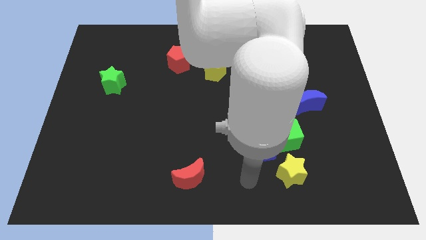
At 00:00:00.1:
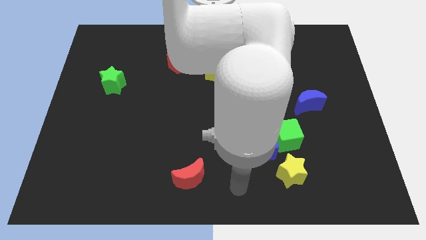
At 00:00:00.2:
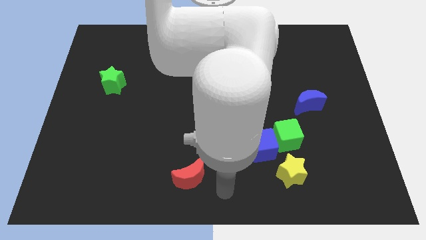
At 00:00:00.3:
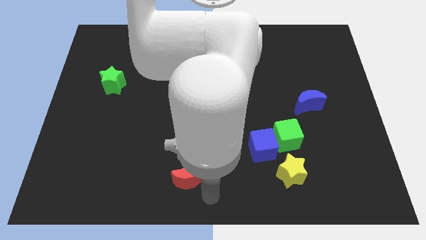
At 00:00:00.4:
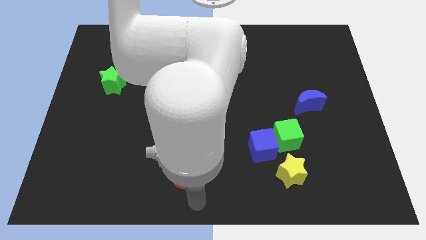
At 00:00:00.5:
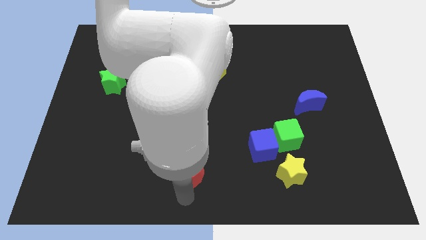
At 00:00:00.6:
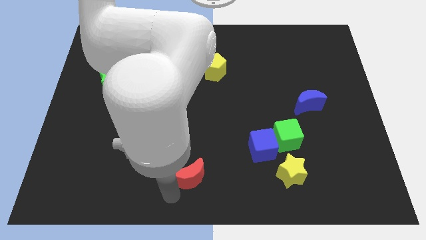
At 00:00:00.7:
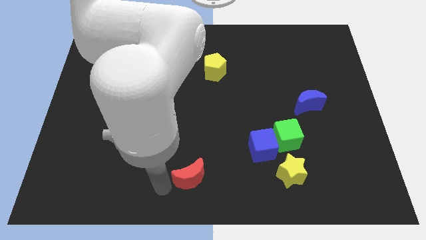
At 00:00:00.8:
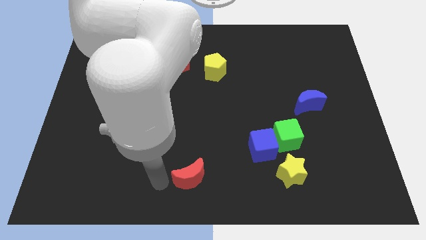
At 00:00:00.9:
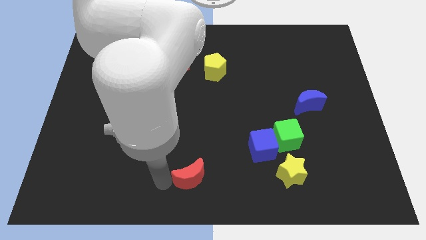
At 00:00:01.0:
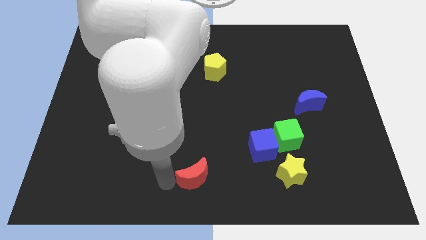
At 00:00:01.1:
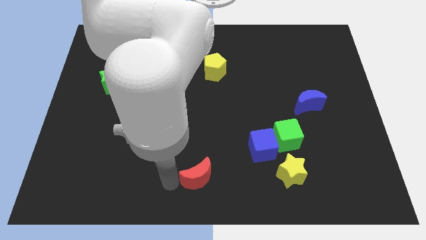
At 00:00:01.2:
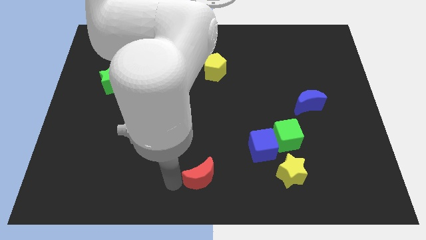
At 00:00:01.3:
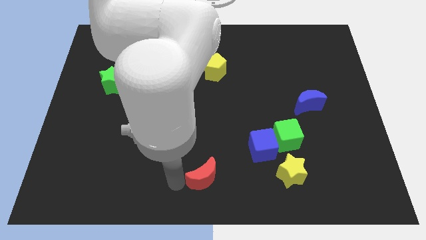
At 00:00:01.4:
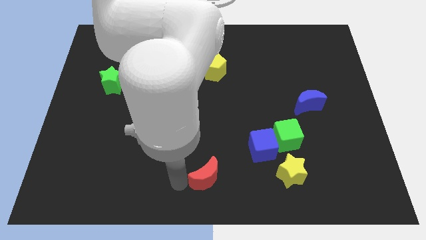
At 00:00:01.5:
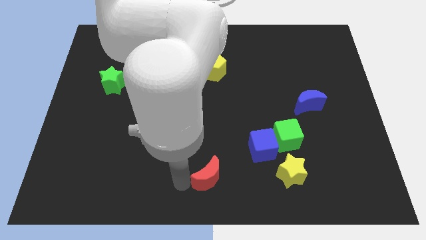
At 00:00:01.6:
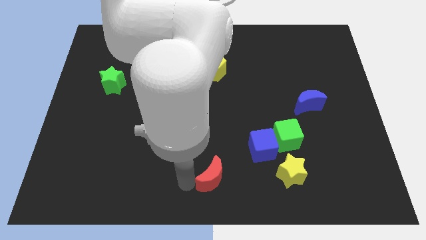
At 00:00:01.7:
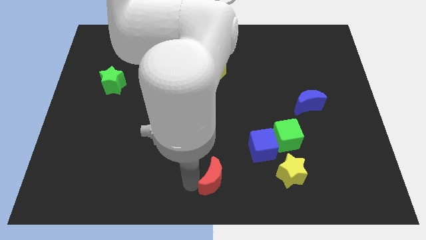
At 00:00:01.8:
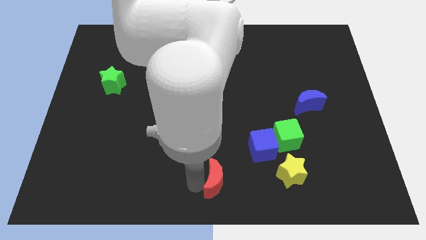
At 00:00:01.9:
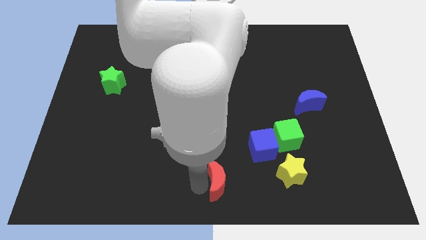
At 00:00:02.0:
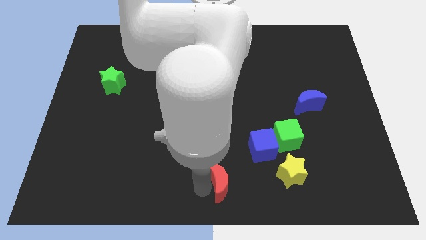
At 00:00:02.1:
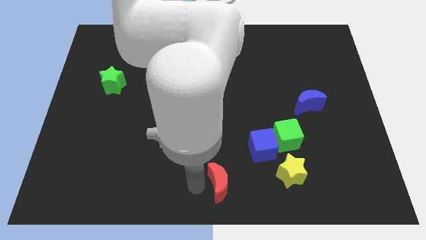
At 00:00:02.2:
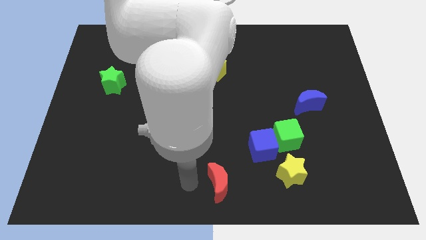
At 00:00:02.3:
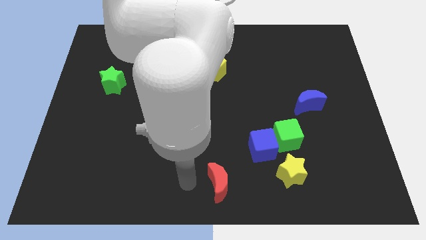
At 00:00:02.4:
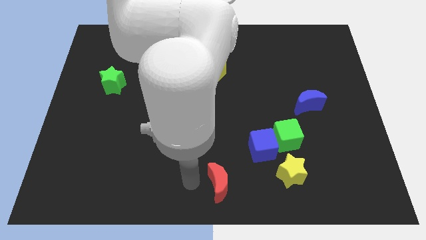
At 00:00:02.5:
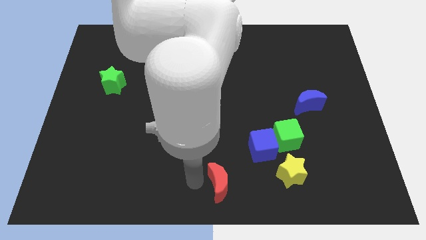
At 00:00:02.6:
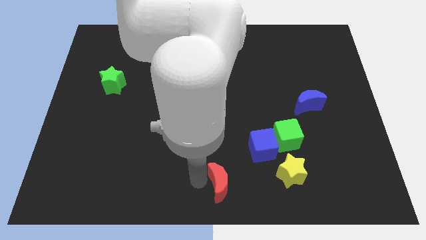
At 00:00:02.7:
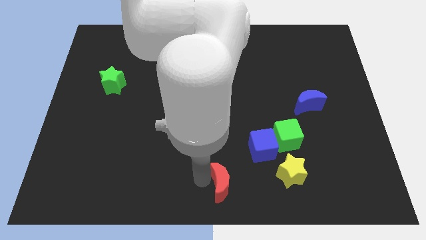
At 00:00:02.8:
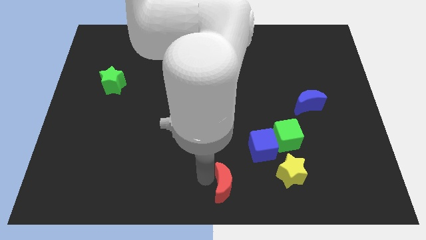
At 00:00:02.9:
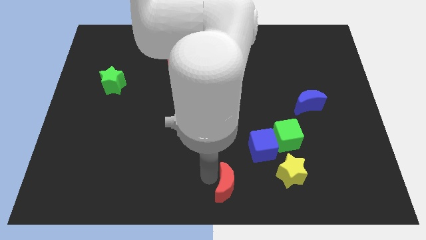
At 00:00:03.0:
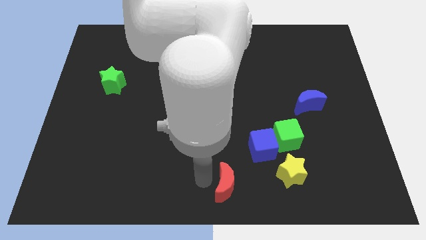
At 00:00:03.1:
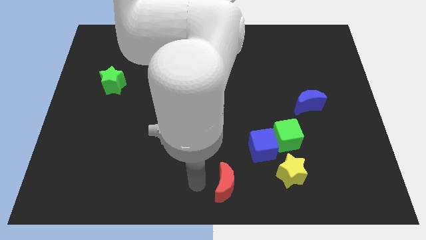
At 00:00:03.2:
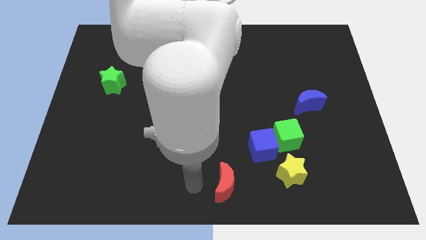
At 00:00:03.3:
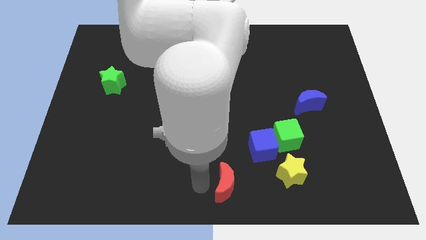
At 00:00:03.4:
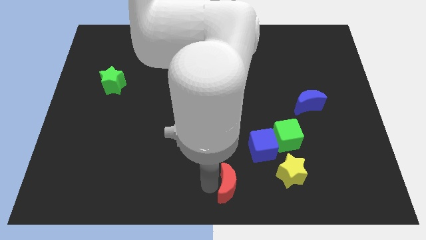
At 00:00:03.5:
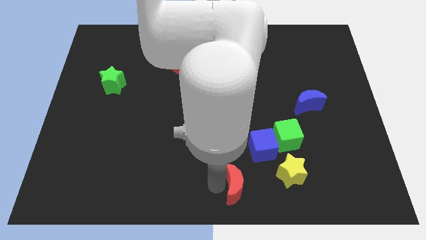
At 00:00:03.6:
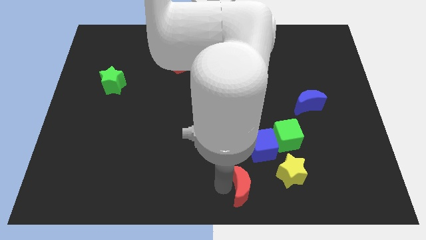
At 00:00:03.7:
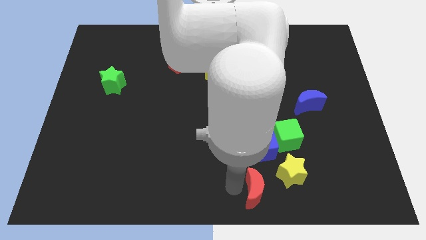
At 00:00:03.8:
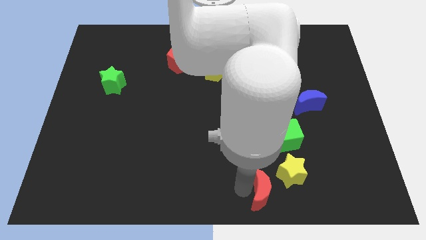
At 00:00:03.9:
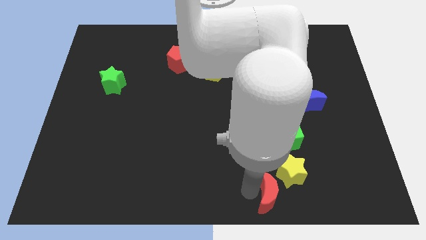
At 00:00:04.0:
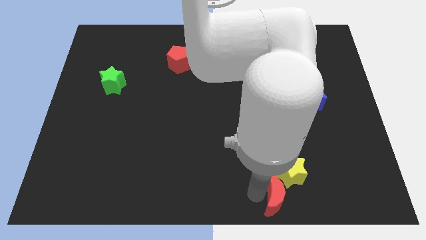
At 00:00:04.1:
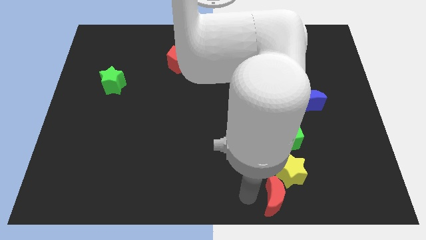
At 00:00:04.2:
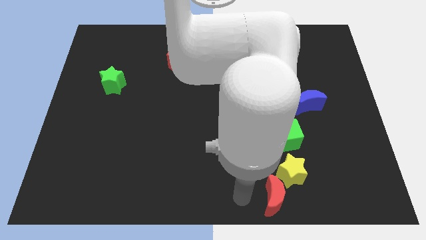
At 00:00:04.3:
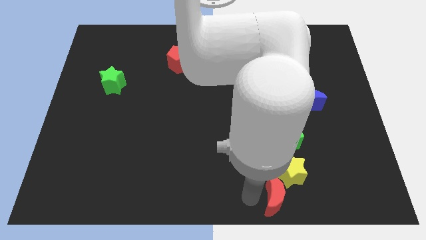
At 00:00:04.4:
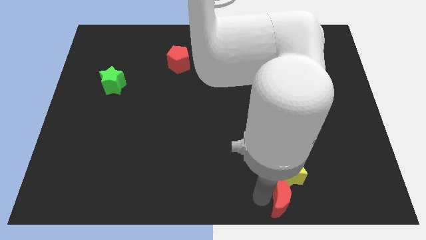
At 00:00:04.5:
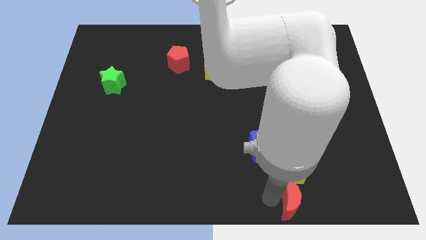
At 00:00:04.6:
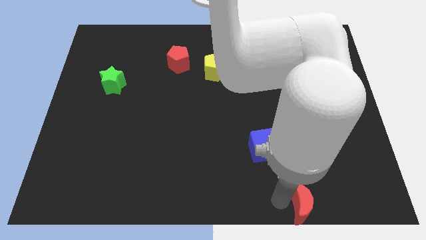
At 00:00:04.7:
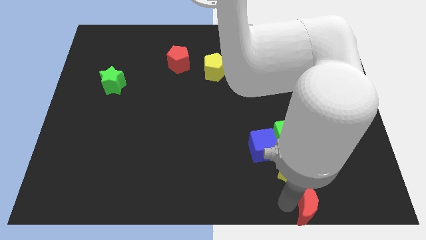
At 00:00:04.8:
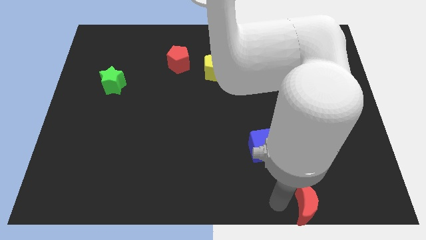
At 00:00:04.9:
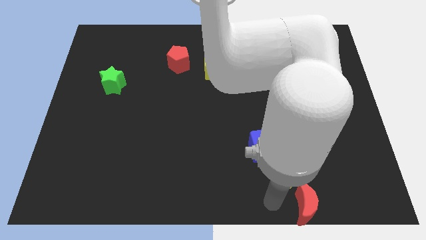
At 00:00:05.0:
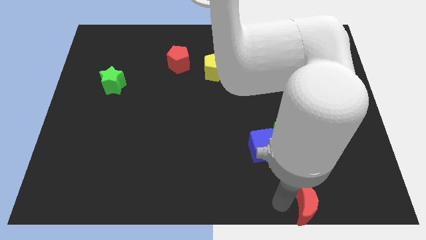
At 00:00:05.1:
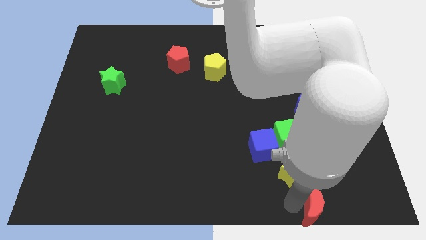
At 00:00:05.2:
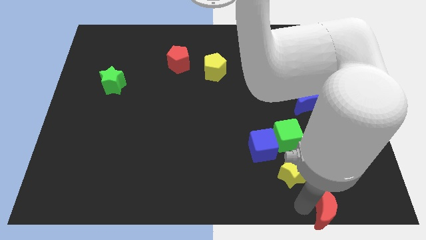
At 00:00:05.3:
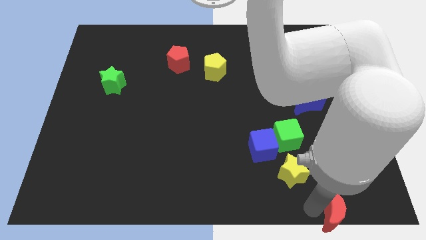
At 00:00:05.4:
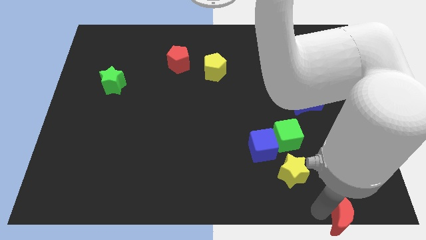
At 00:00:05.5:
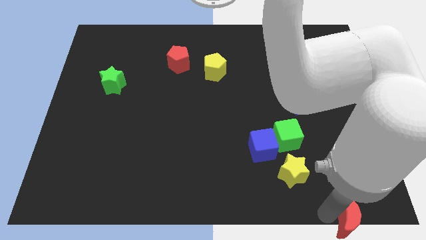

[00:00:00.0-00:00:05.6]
push the red moon to the bottom right

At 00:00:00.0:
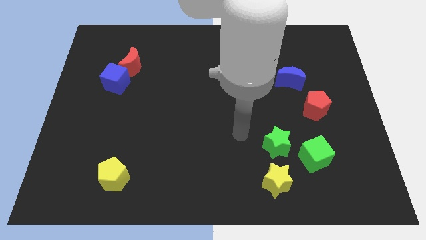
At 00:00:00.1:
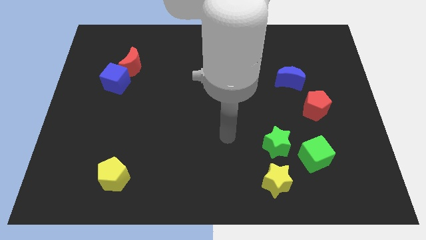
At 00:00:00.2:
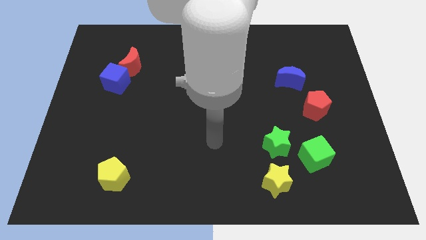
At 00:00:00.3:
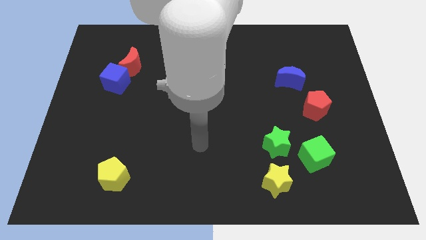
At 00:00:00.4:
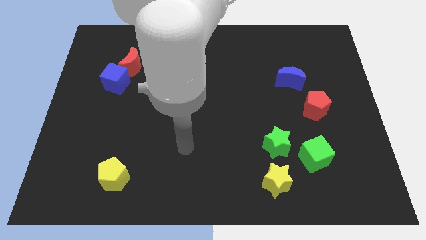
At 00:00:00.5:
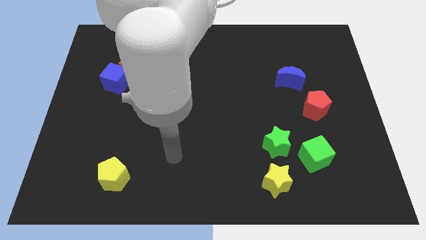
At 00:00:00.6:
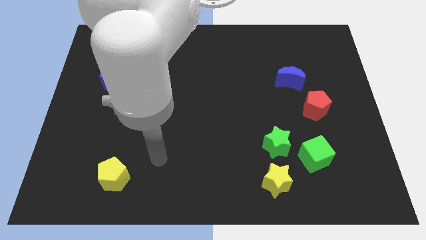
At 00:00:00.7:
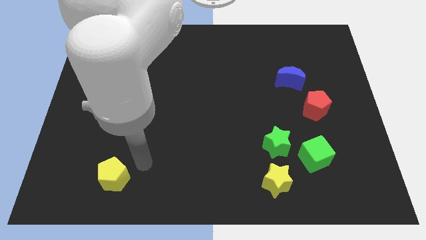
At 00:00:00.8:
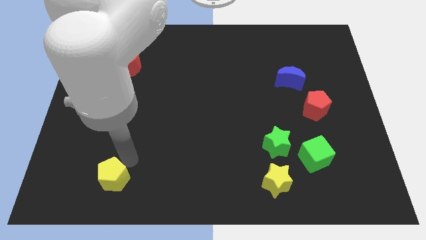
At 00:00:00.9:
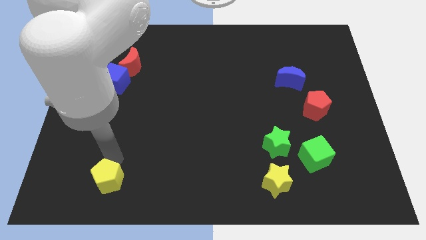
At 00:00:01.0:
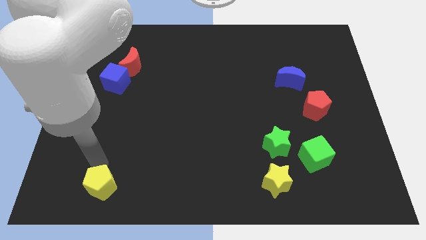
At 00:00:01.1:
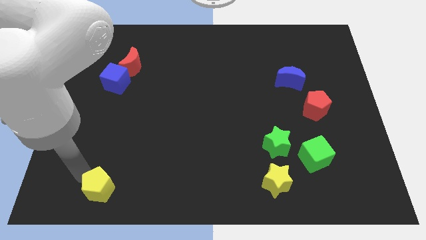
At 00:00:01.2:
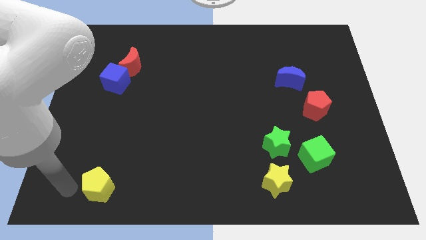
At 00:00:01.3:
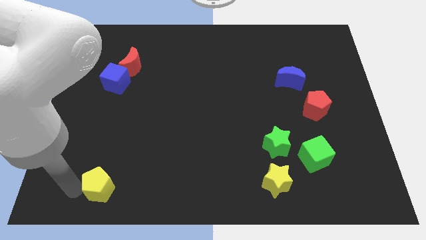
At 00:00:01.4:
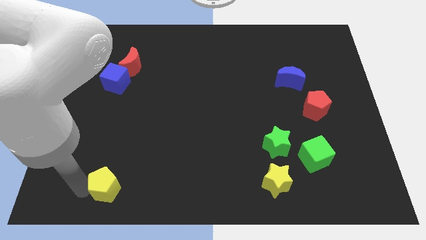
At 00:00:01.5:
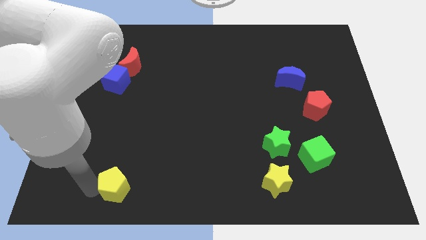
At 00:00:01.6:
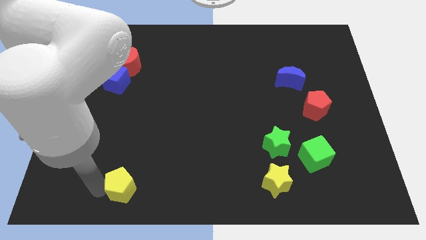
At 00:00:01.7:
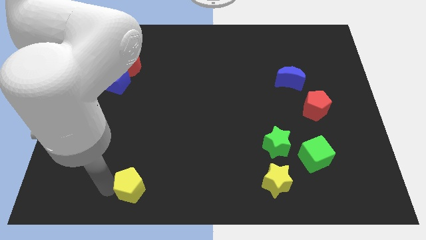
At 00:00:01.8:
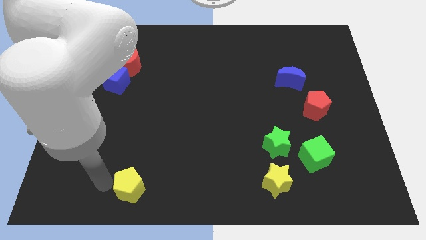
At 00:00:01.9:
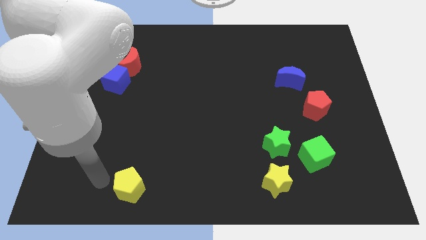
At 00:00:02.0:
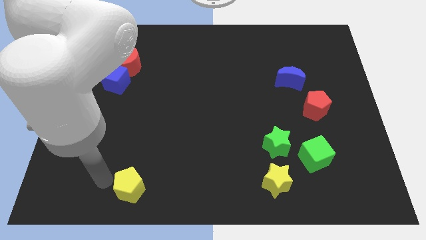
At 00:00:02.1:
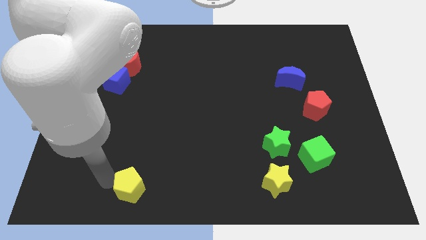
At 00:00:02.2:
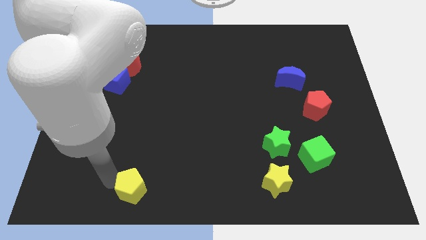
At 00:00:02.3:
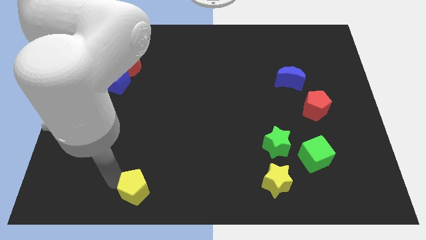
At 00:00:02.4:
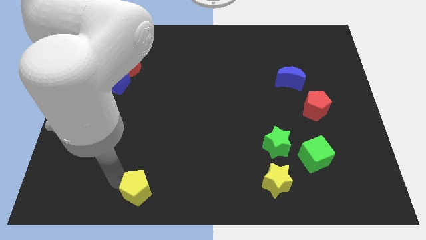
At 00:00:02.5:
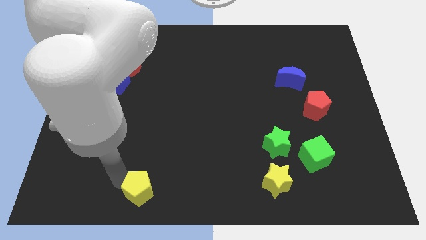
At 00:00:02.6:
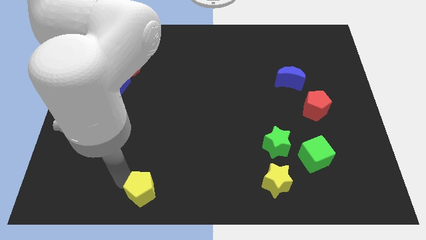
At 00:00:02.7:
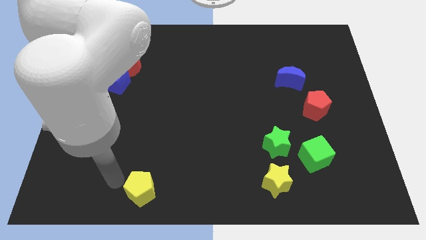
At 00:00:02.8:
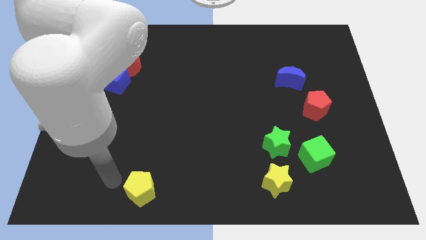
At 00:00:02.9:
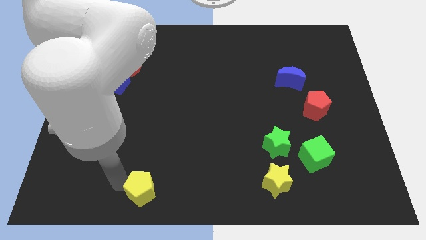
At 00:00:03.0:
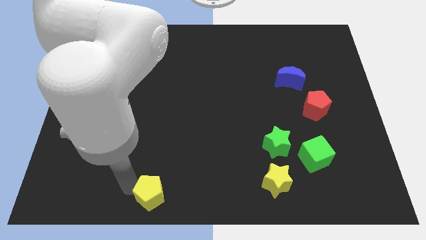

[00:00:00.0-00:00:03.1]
push the yellow pentagon to the bottom
